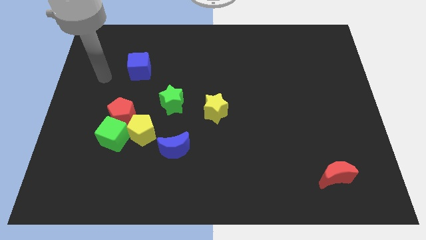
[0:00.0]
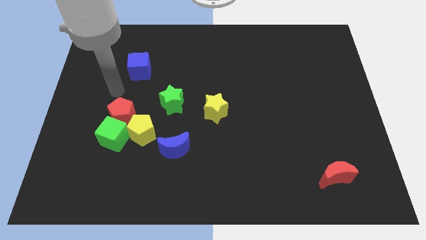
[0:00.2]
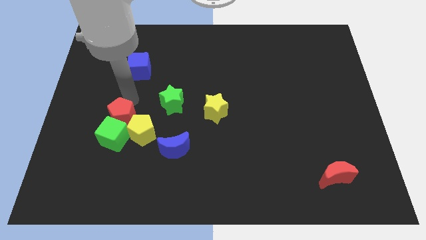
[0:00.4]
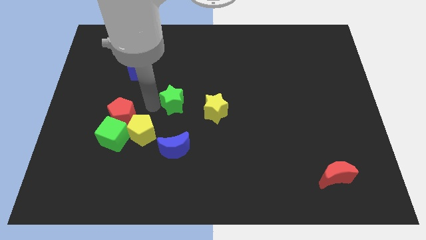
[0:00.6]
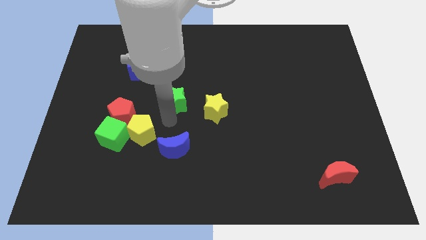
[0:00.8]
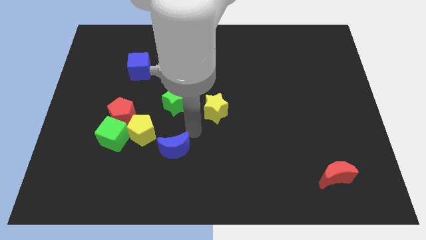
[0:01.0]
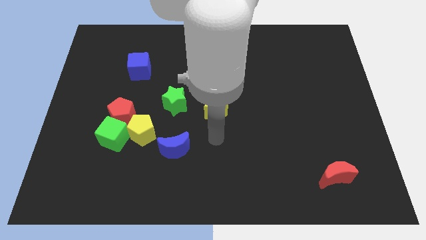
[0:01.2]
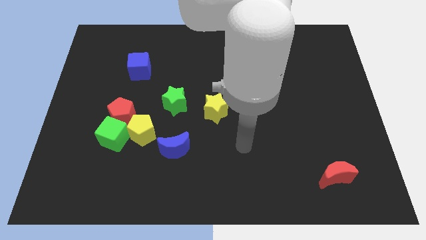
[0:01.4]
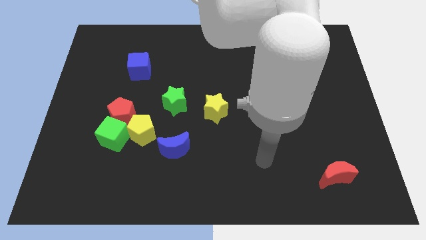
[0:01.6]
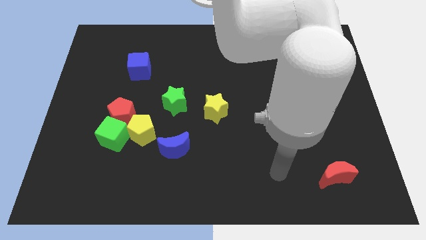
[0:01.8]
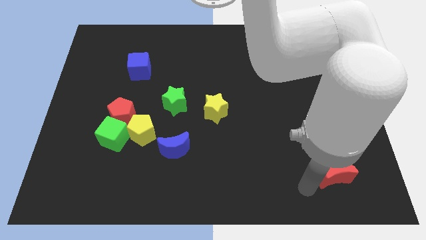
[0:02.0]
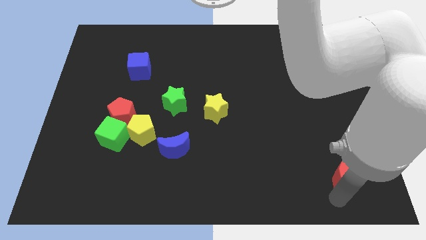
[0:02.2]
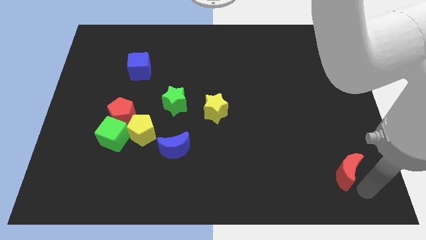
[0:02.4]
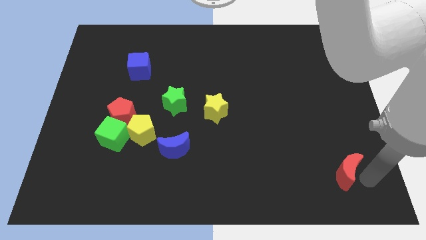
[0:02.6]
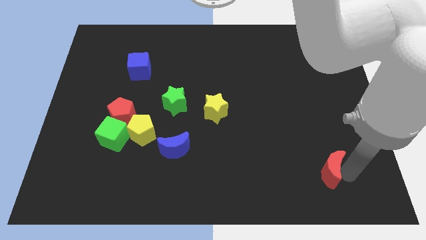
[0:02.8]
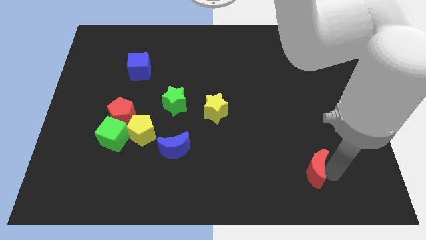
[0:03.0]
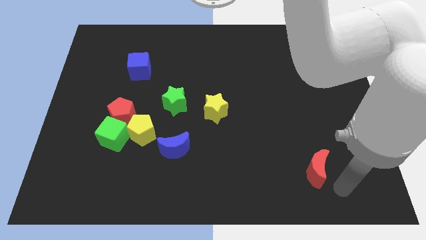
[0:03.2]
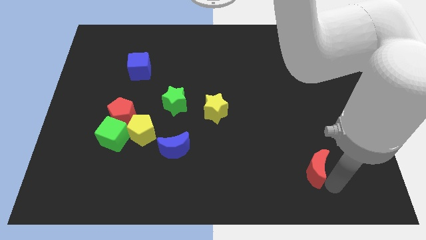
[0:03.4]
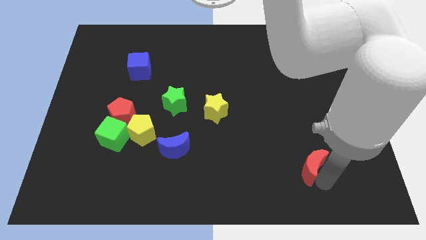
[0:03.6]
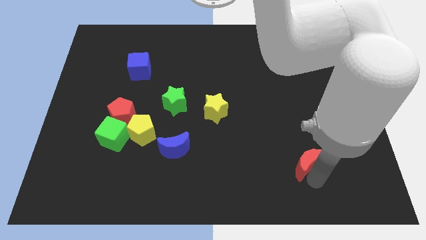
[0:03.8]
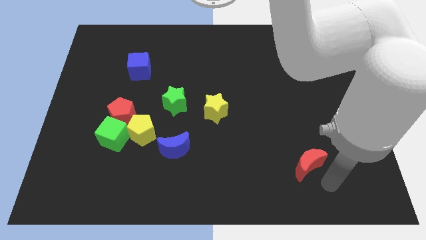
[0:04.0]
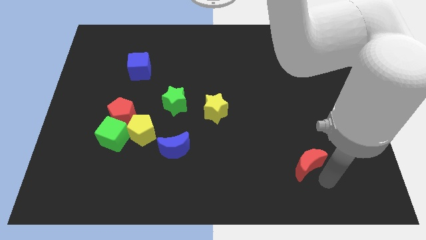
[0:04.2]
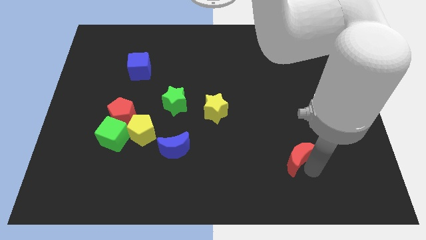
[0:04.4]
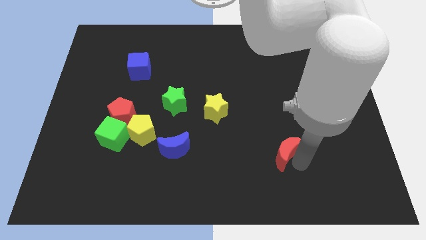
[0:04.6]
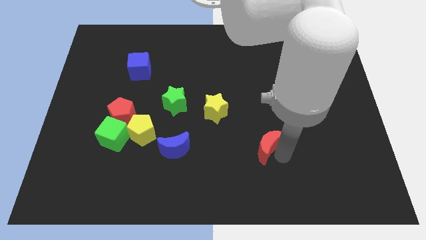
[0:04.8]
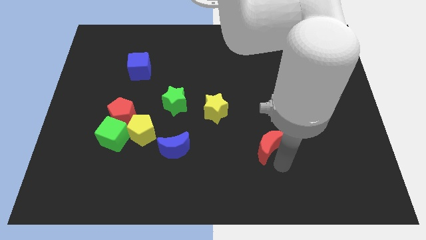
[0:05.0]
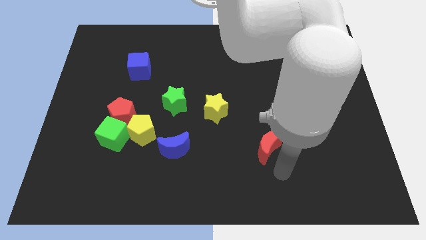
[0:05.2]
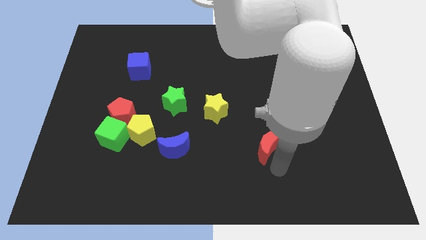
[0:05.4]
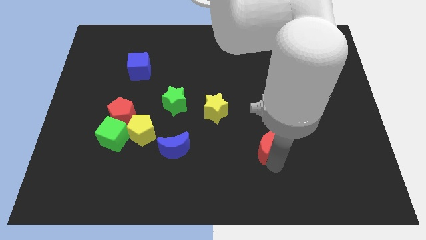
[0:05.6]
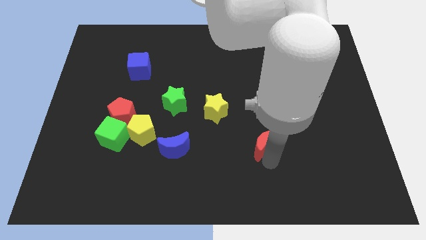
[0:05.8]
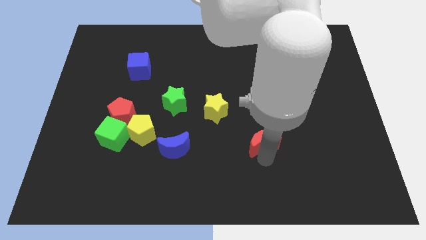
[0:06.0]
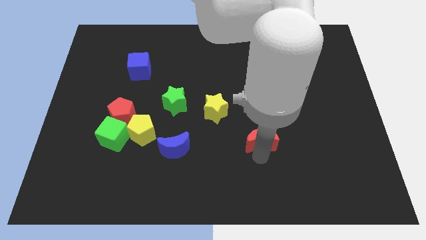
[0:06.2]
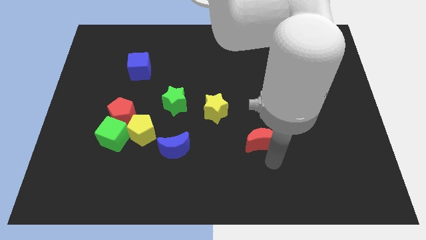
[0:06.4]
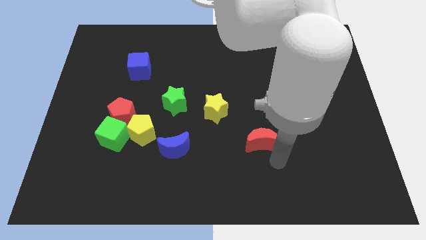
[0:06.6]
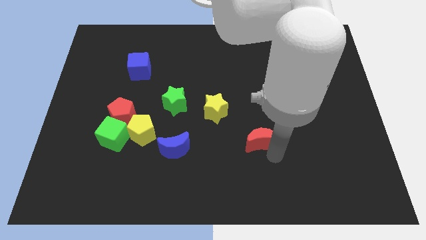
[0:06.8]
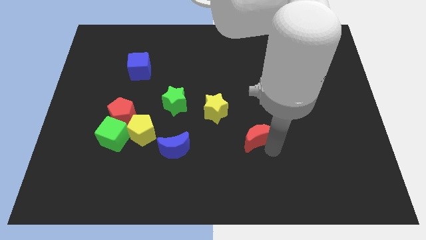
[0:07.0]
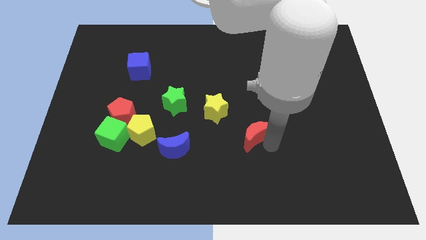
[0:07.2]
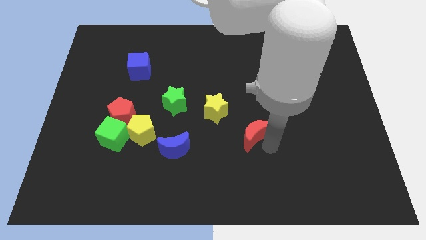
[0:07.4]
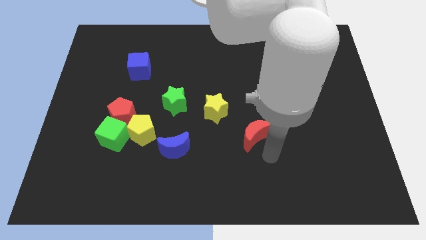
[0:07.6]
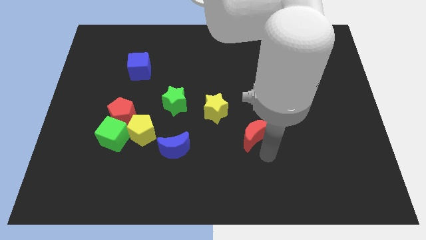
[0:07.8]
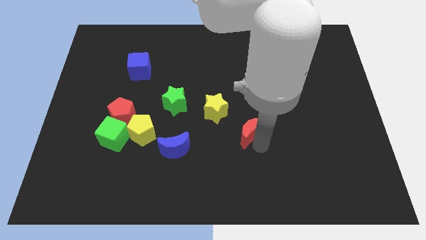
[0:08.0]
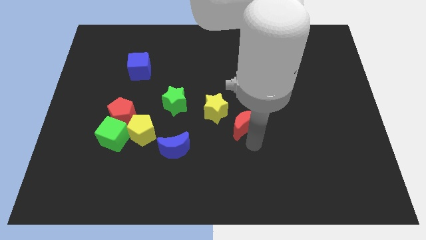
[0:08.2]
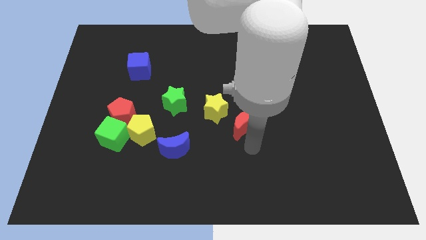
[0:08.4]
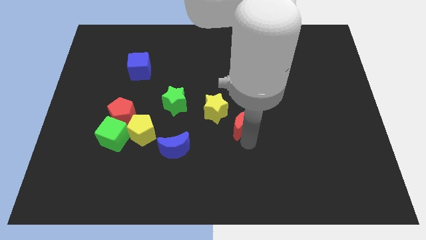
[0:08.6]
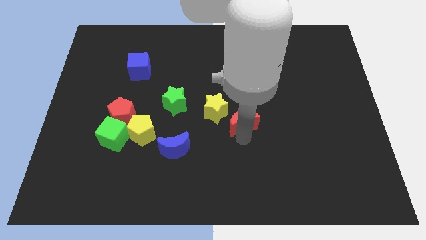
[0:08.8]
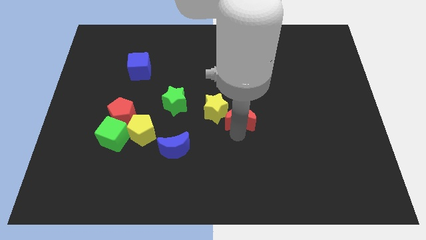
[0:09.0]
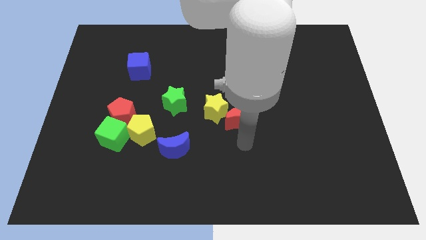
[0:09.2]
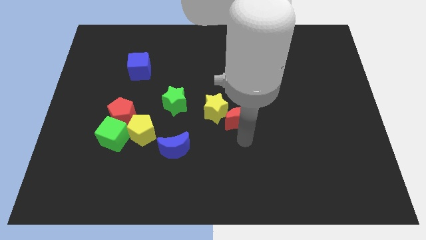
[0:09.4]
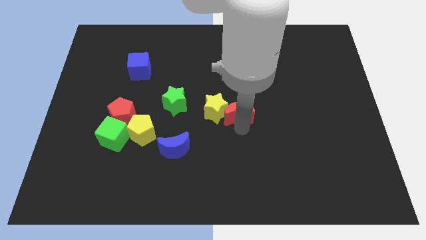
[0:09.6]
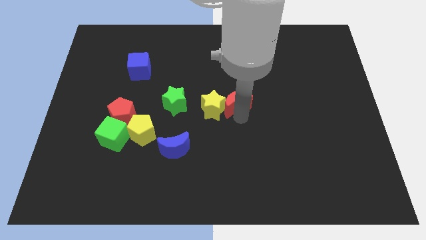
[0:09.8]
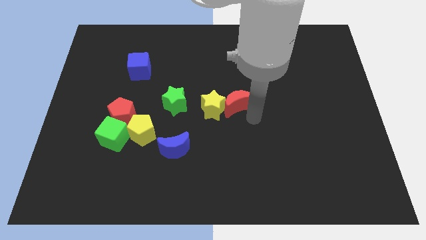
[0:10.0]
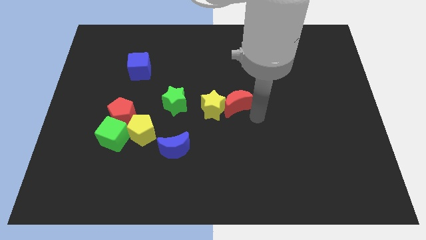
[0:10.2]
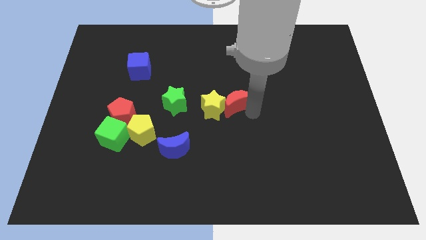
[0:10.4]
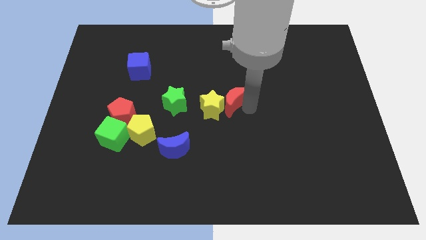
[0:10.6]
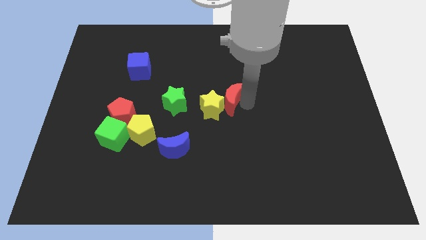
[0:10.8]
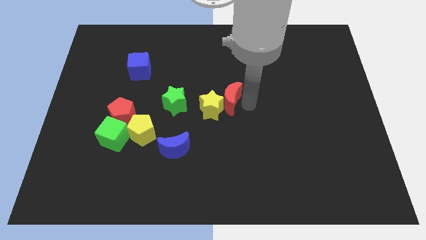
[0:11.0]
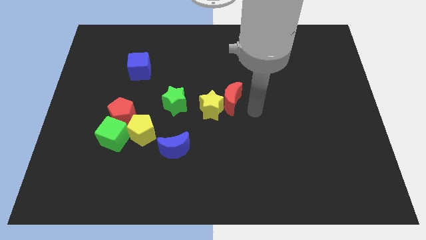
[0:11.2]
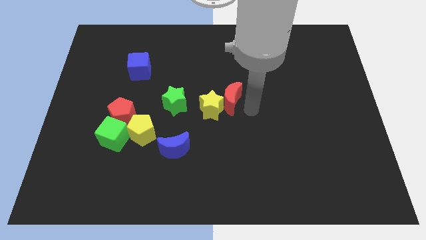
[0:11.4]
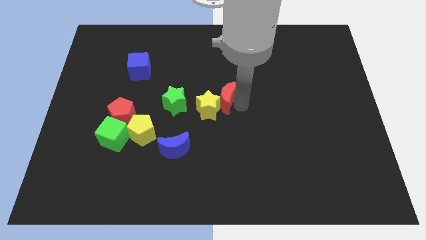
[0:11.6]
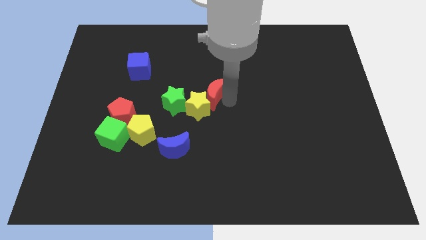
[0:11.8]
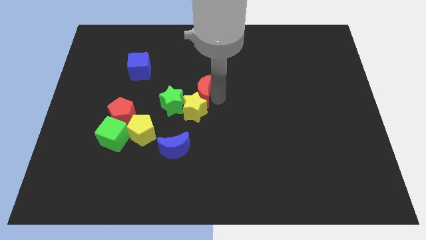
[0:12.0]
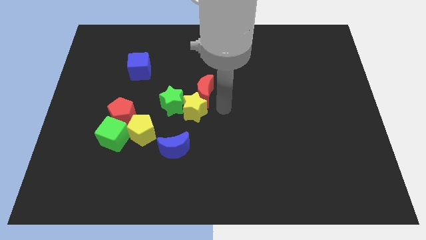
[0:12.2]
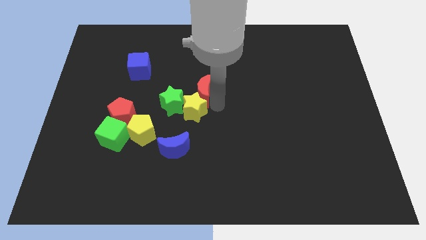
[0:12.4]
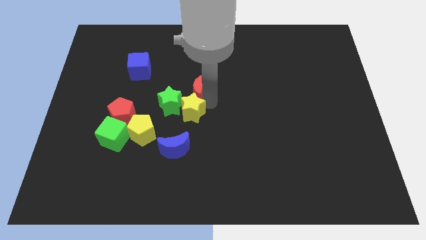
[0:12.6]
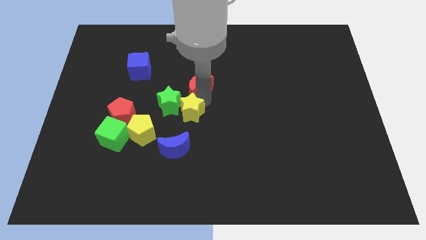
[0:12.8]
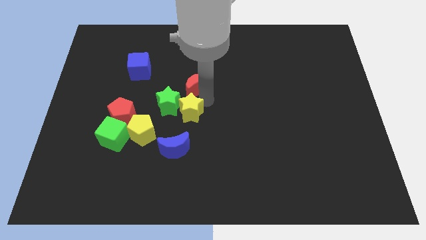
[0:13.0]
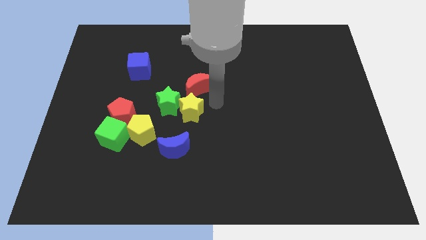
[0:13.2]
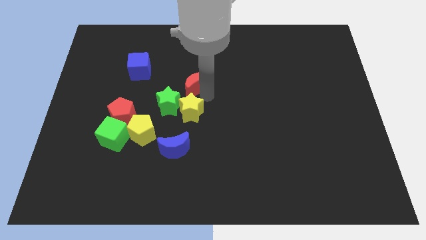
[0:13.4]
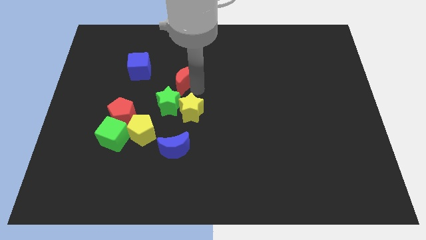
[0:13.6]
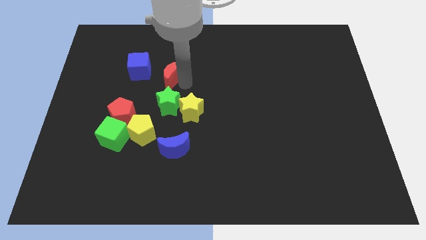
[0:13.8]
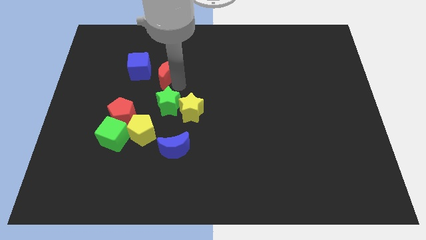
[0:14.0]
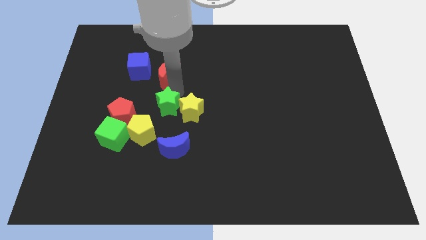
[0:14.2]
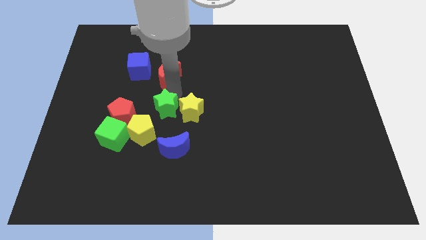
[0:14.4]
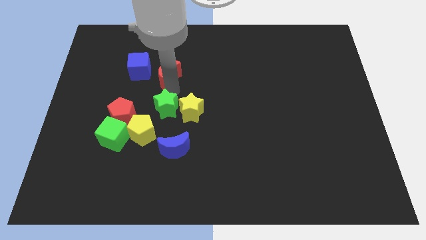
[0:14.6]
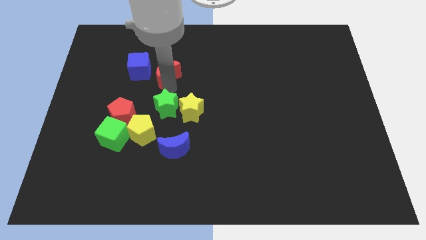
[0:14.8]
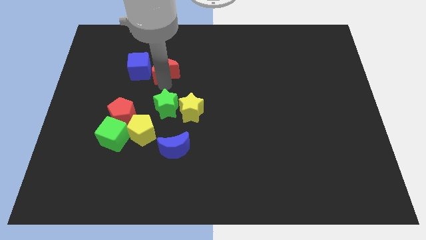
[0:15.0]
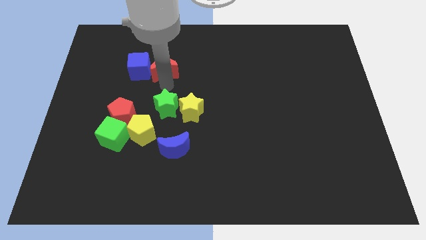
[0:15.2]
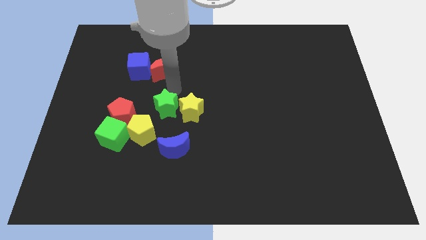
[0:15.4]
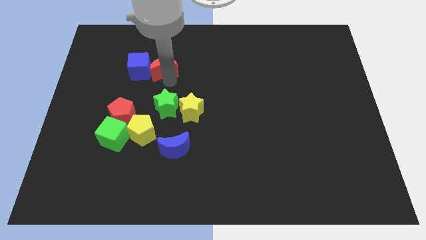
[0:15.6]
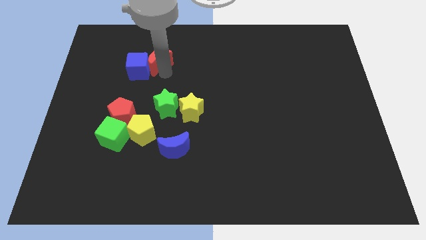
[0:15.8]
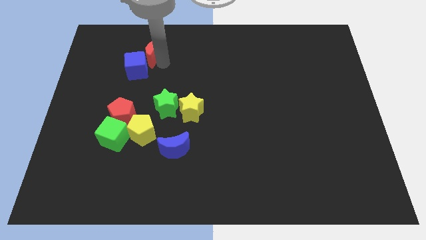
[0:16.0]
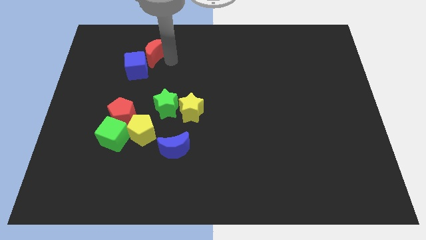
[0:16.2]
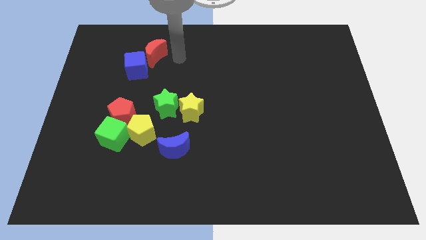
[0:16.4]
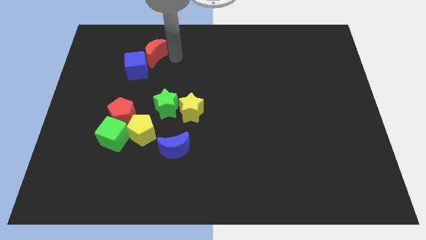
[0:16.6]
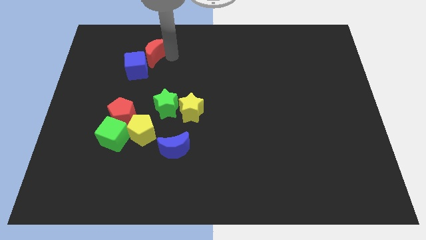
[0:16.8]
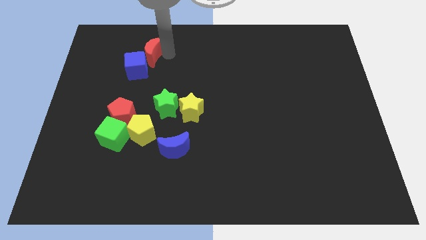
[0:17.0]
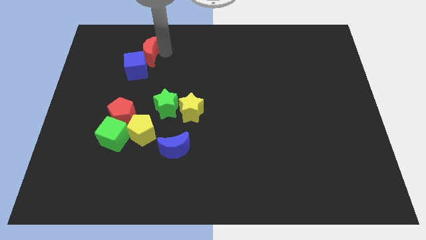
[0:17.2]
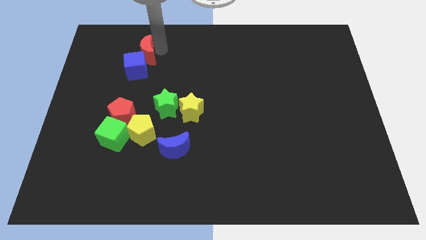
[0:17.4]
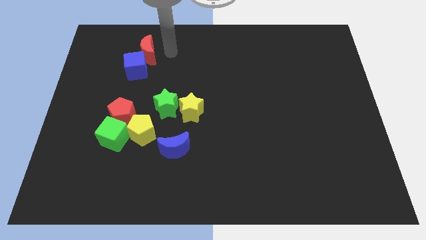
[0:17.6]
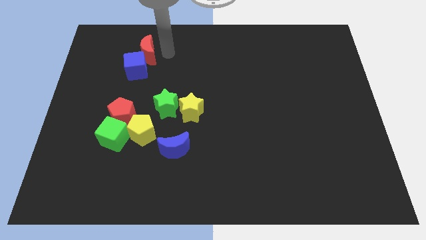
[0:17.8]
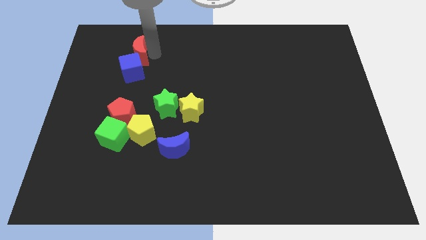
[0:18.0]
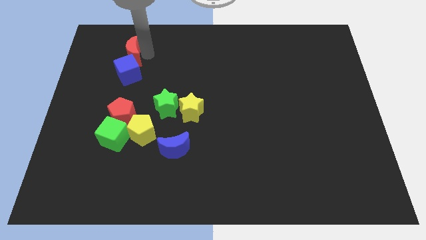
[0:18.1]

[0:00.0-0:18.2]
slide the red moon to the top left of the blue cube
